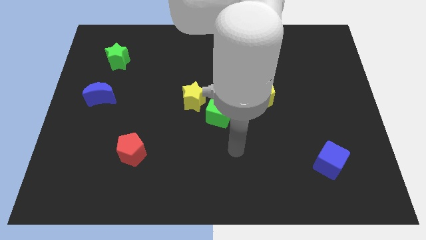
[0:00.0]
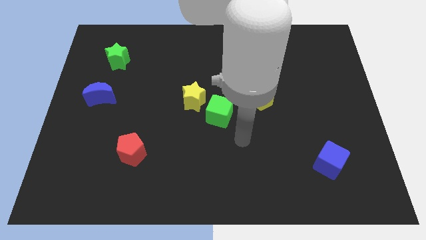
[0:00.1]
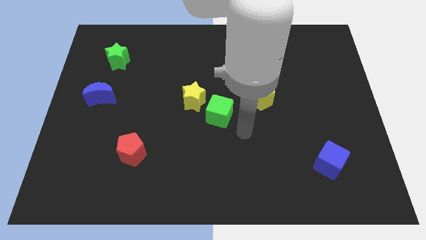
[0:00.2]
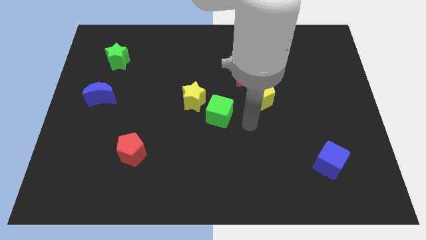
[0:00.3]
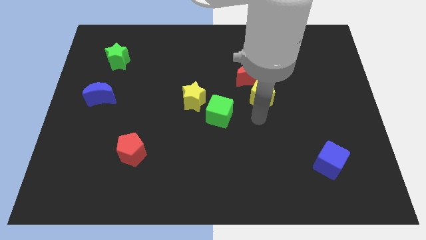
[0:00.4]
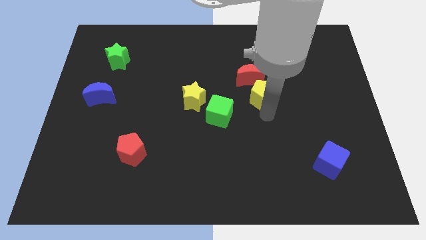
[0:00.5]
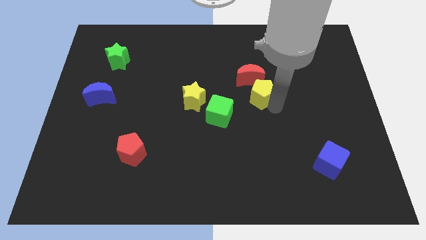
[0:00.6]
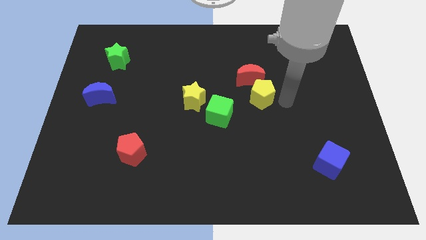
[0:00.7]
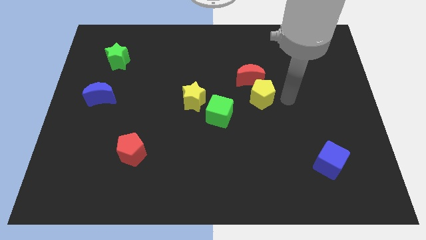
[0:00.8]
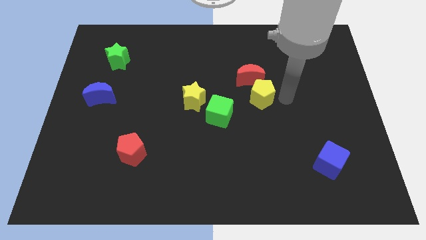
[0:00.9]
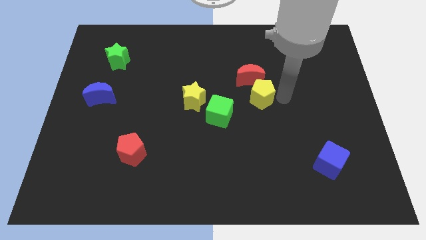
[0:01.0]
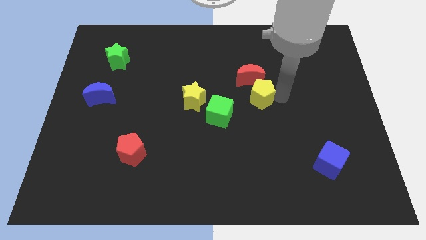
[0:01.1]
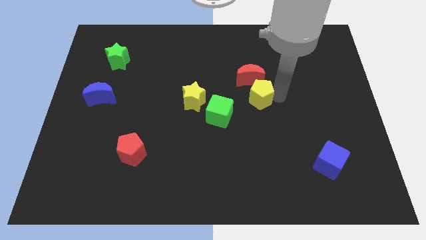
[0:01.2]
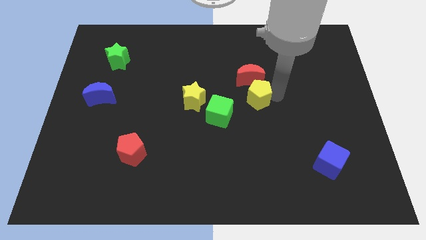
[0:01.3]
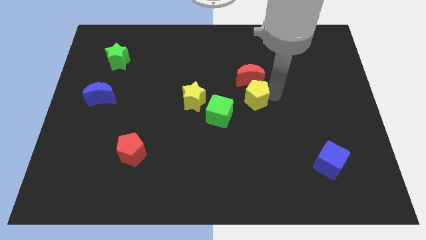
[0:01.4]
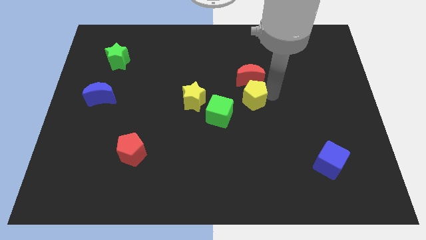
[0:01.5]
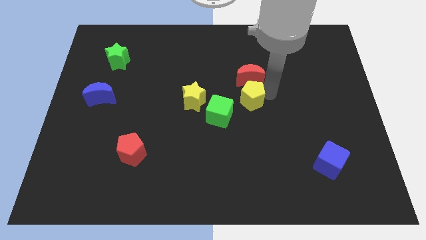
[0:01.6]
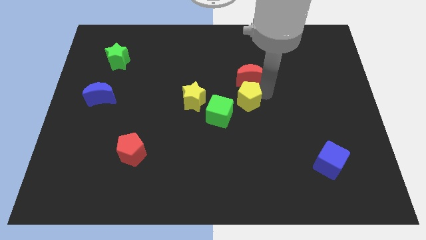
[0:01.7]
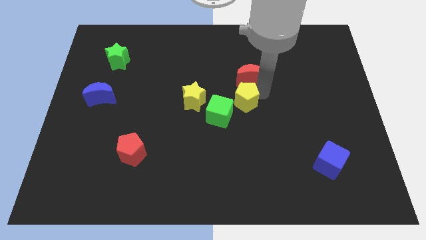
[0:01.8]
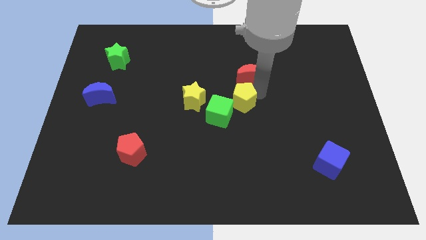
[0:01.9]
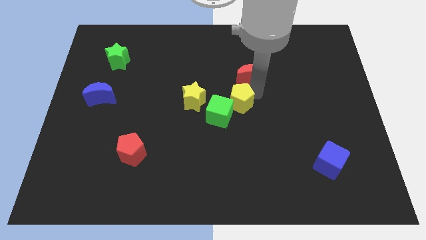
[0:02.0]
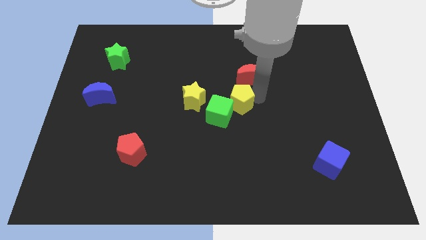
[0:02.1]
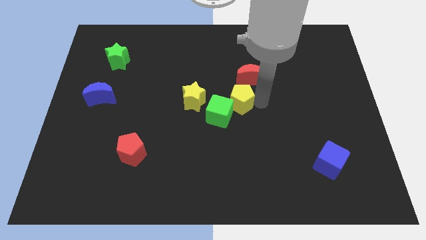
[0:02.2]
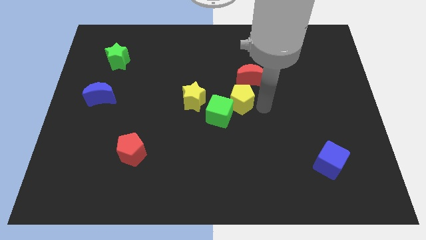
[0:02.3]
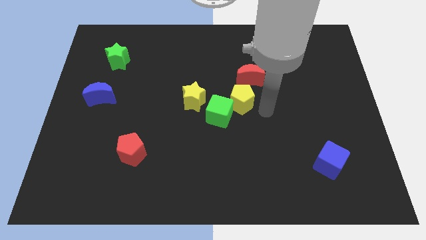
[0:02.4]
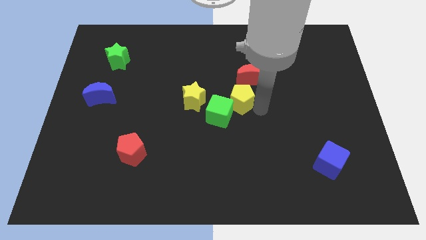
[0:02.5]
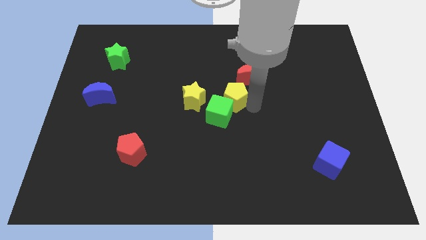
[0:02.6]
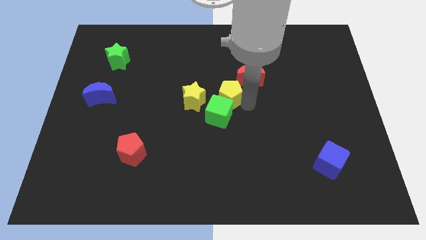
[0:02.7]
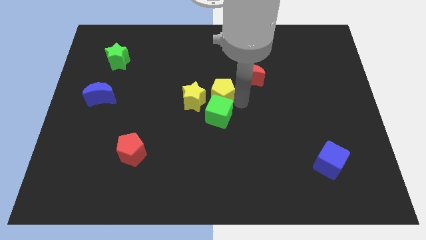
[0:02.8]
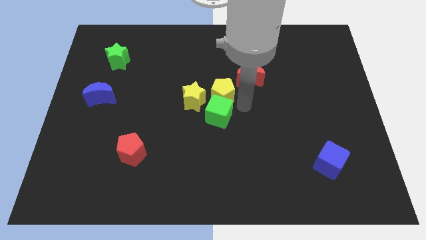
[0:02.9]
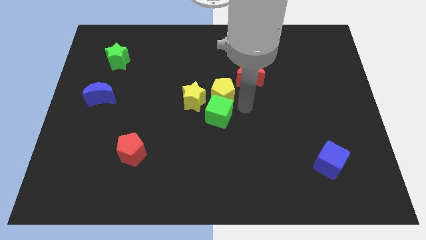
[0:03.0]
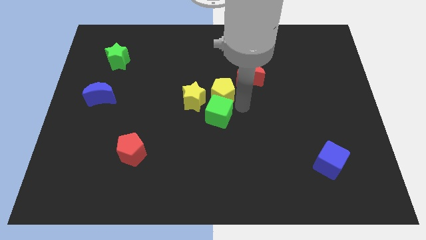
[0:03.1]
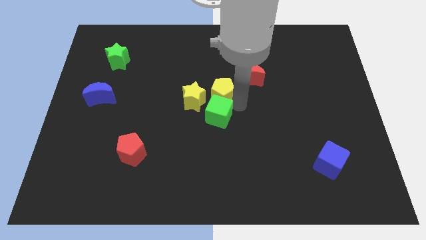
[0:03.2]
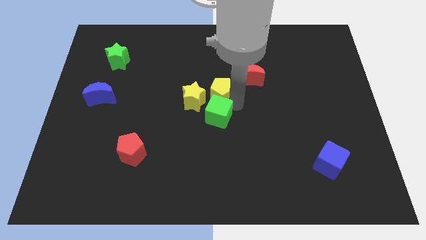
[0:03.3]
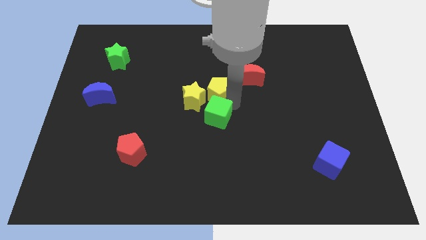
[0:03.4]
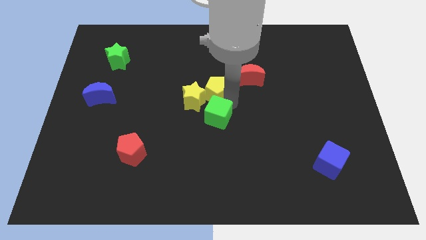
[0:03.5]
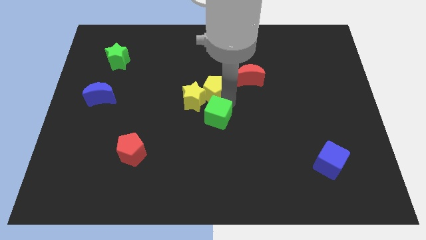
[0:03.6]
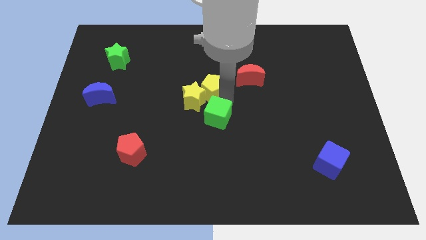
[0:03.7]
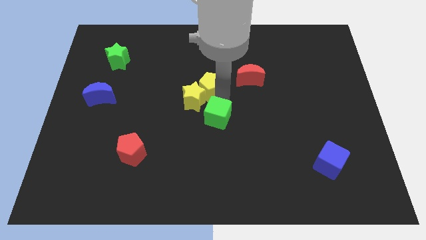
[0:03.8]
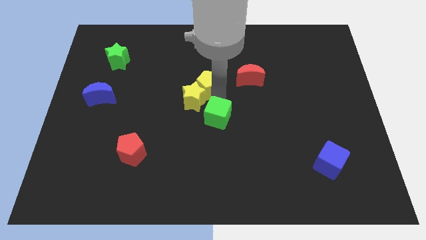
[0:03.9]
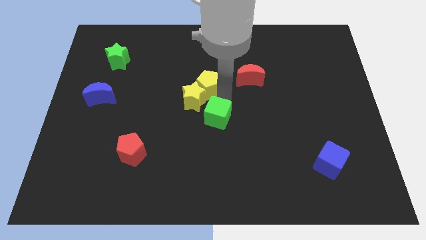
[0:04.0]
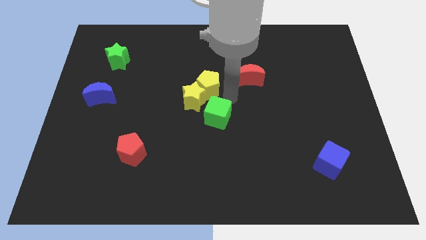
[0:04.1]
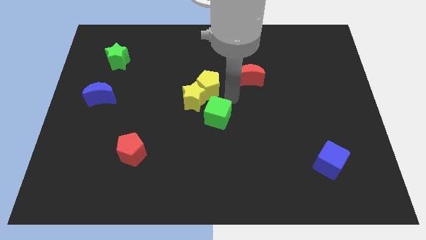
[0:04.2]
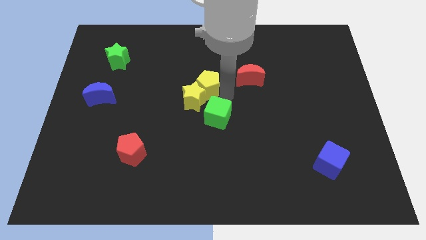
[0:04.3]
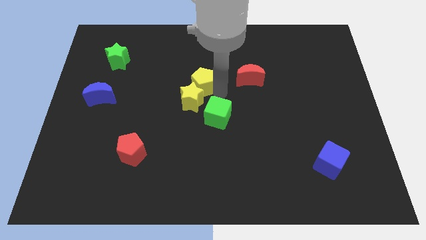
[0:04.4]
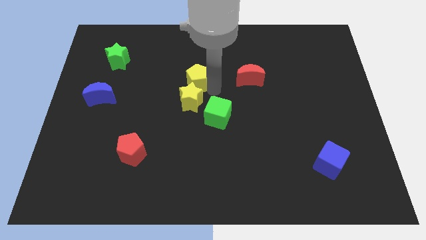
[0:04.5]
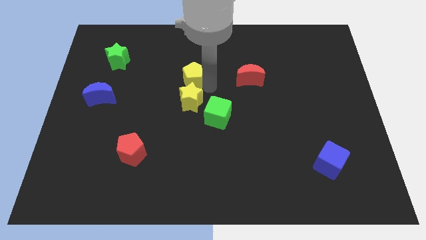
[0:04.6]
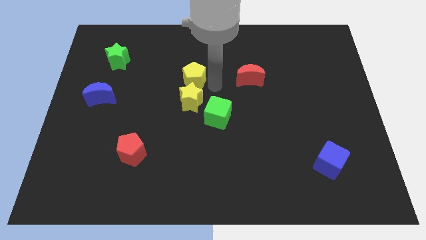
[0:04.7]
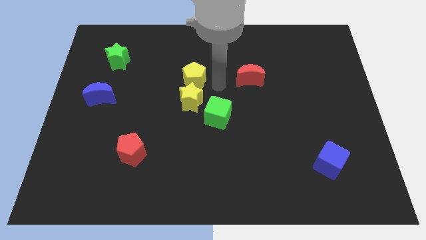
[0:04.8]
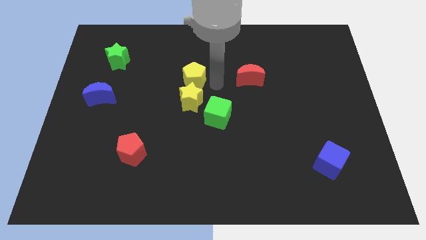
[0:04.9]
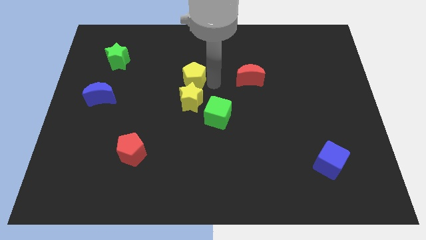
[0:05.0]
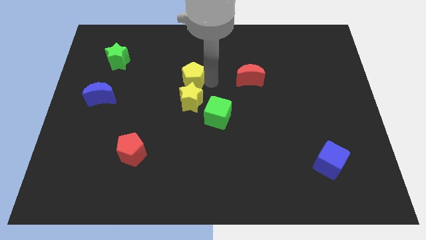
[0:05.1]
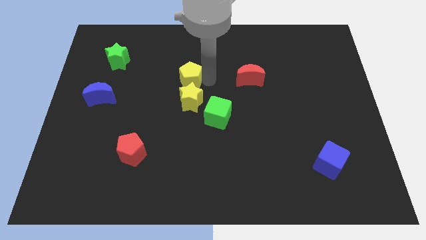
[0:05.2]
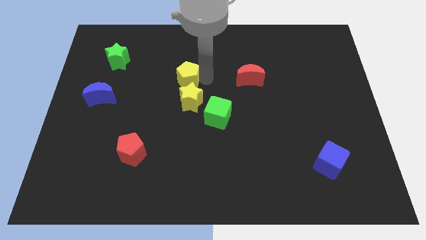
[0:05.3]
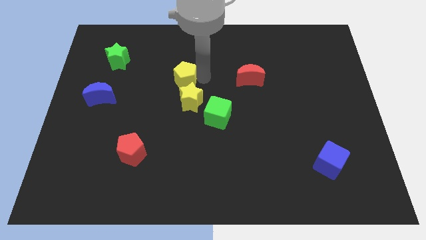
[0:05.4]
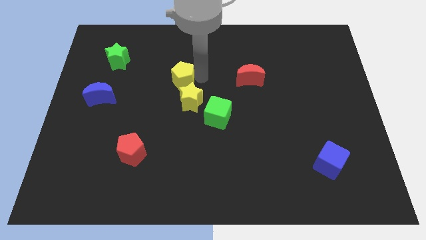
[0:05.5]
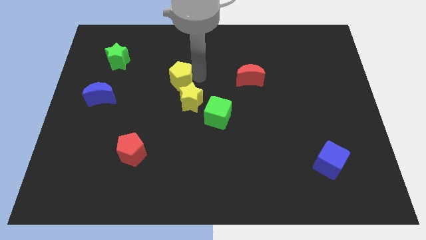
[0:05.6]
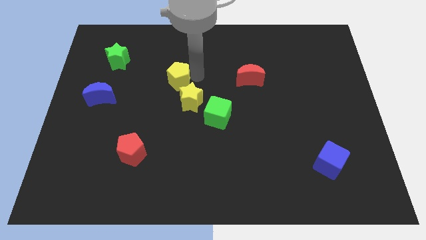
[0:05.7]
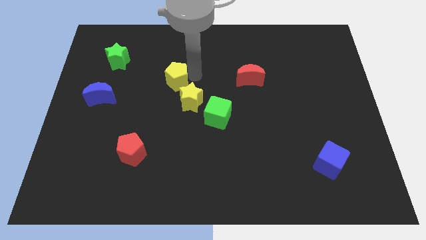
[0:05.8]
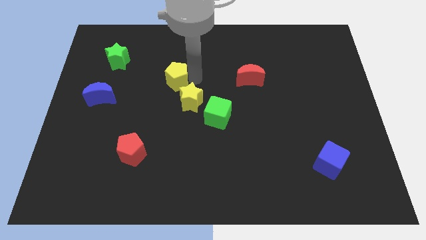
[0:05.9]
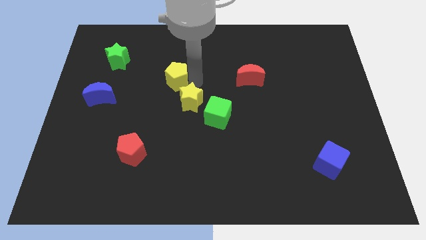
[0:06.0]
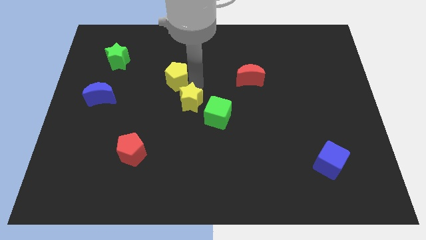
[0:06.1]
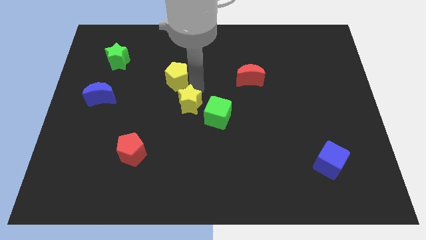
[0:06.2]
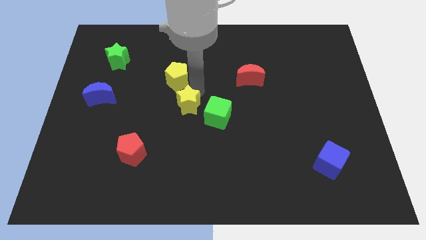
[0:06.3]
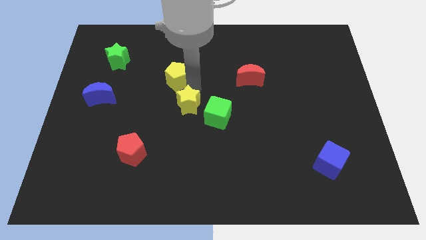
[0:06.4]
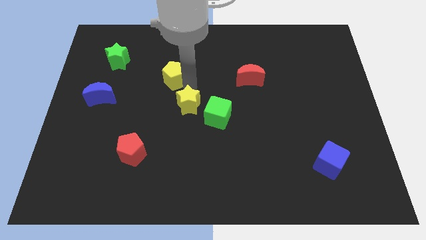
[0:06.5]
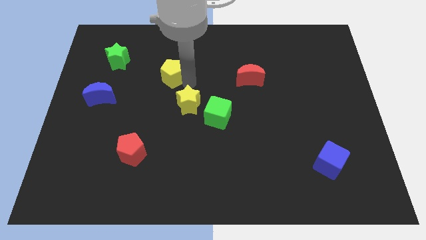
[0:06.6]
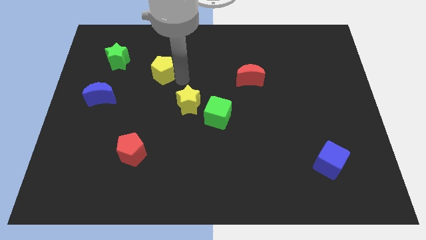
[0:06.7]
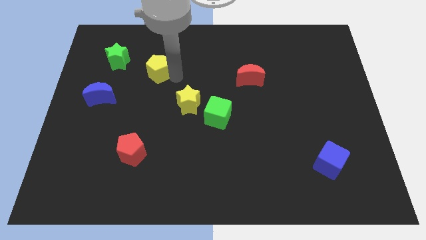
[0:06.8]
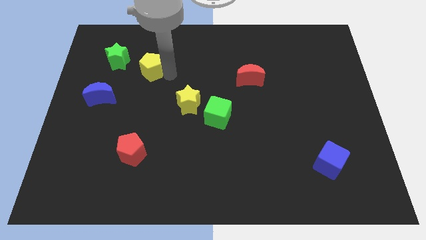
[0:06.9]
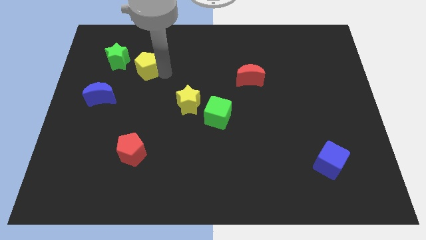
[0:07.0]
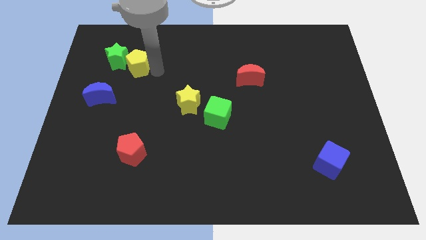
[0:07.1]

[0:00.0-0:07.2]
put the yellow pentagon close to the green star
